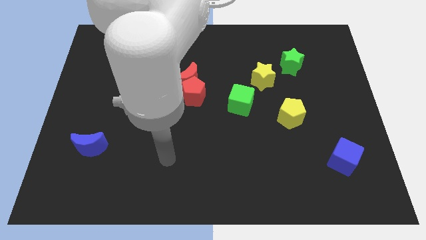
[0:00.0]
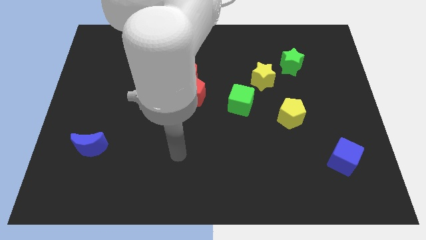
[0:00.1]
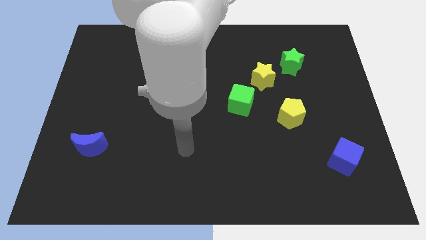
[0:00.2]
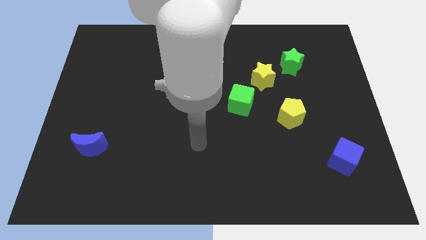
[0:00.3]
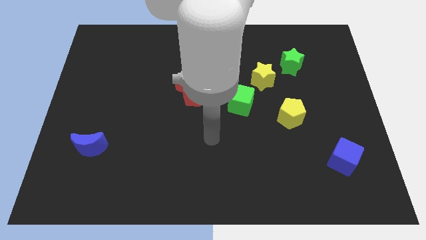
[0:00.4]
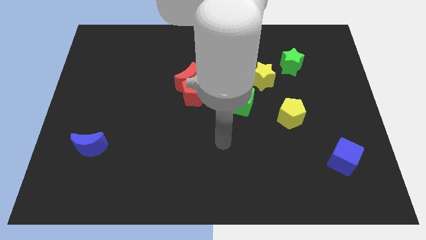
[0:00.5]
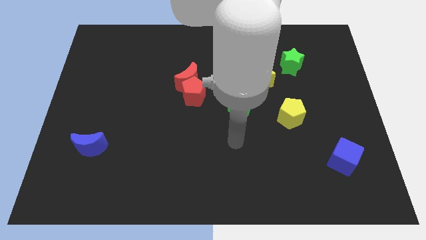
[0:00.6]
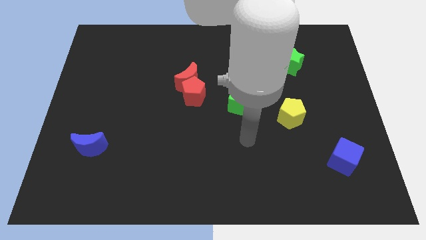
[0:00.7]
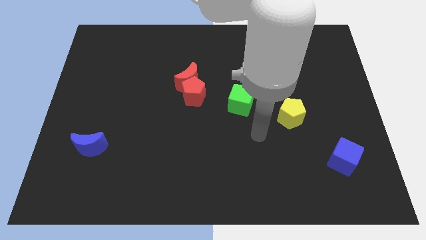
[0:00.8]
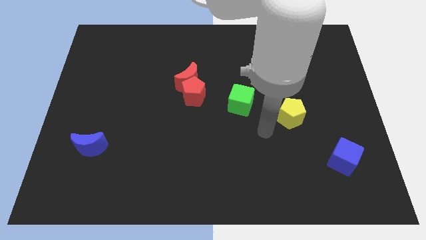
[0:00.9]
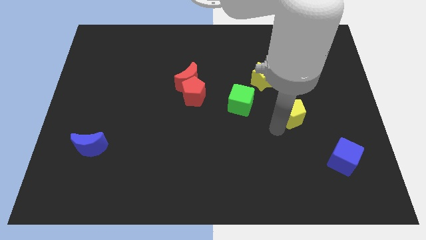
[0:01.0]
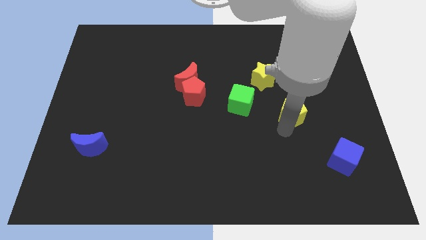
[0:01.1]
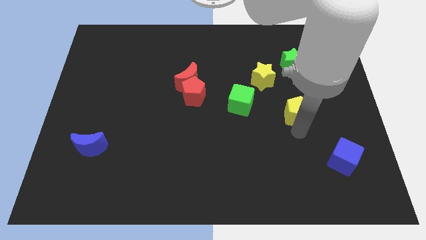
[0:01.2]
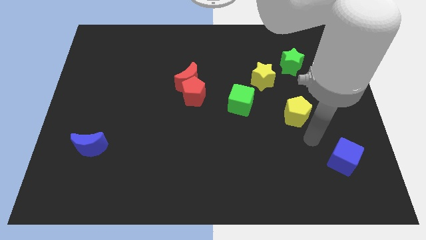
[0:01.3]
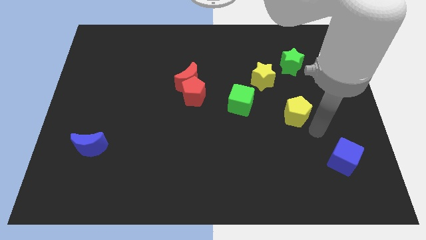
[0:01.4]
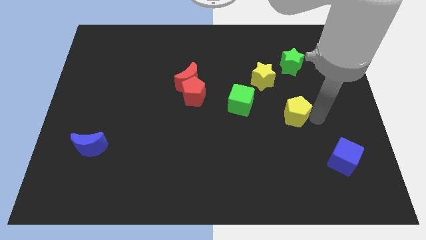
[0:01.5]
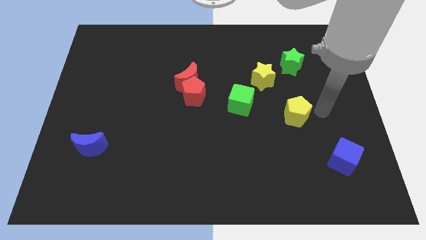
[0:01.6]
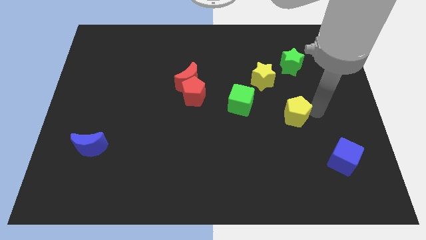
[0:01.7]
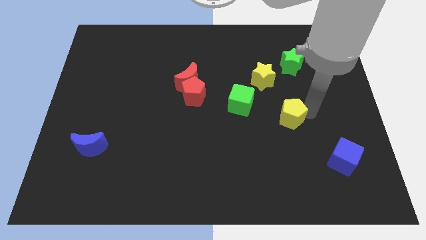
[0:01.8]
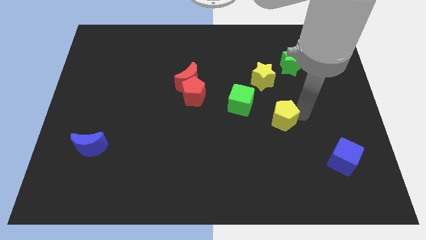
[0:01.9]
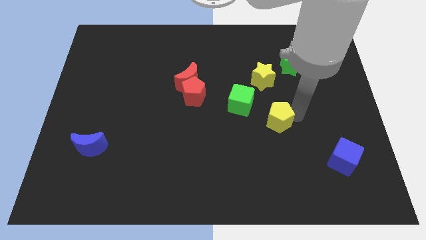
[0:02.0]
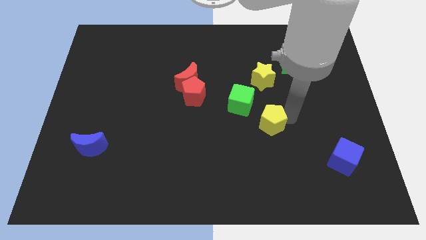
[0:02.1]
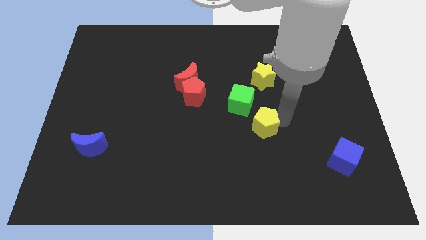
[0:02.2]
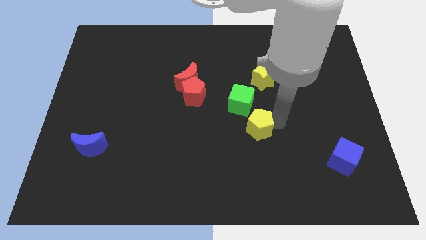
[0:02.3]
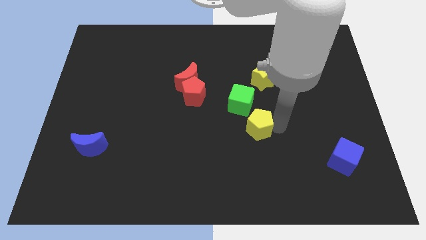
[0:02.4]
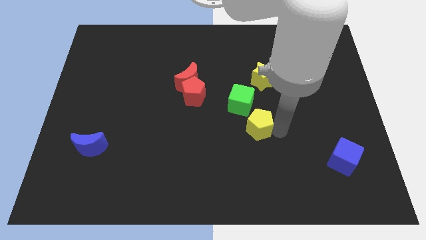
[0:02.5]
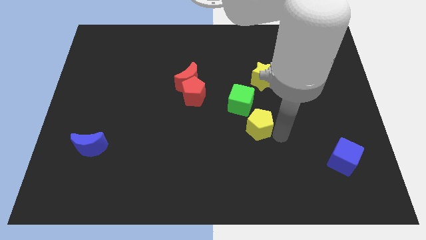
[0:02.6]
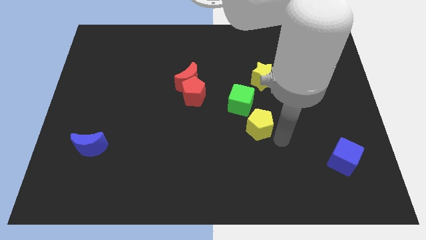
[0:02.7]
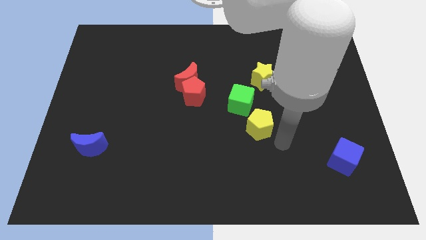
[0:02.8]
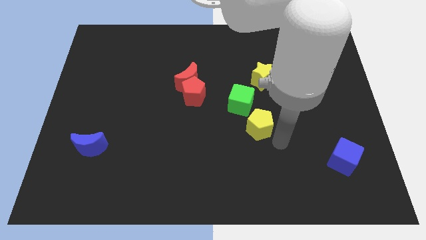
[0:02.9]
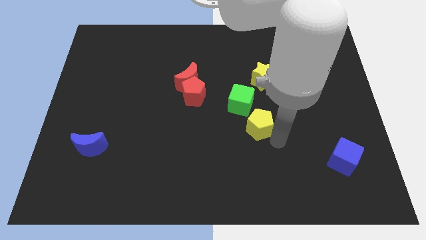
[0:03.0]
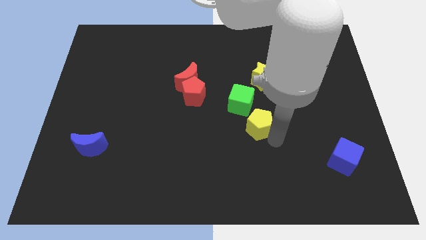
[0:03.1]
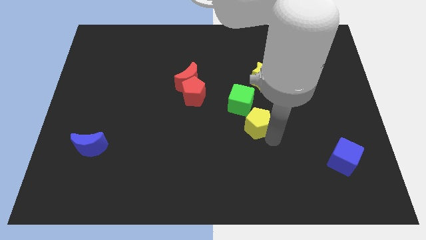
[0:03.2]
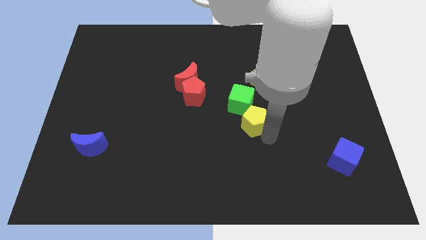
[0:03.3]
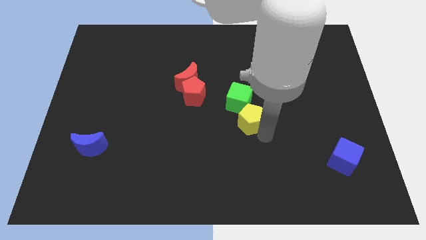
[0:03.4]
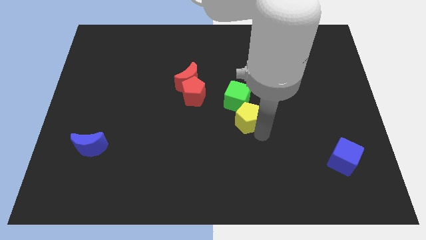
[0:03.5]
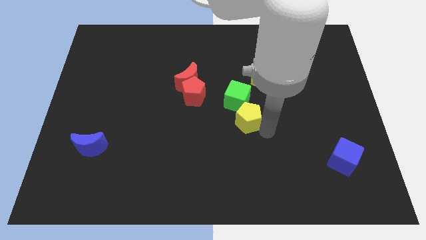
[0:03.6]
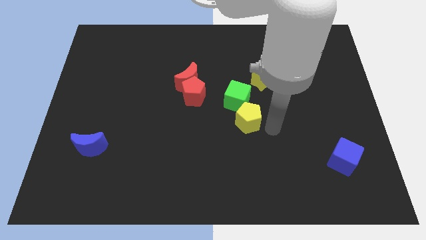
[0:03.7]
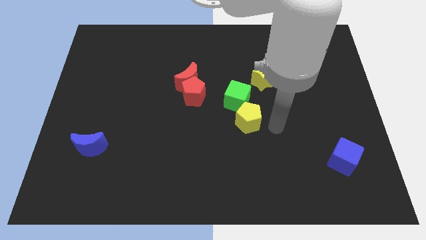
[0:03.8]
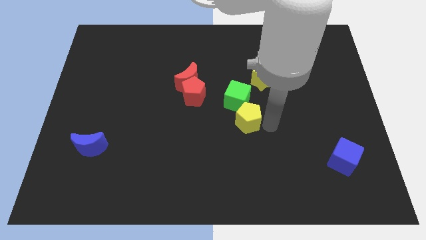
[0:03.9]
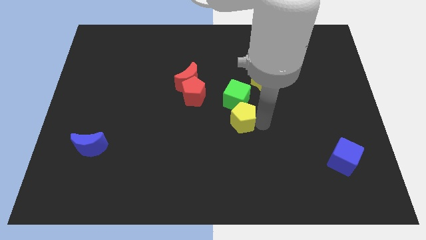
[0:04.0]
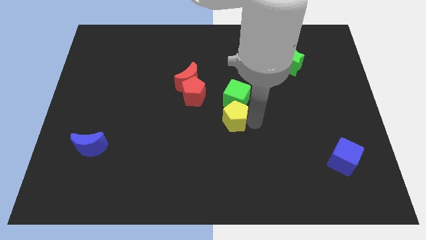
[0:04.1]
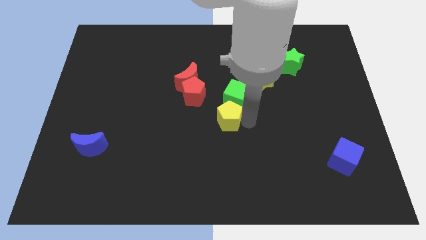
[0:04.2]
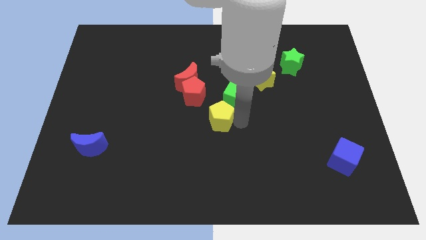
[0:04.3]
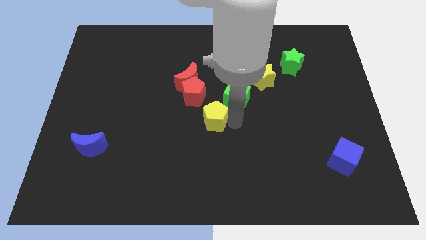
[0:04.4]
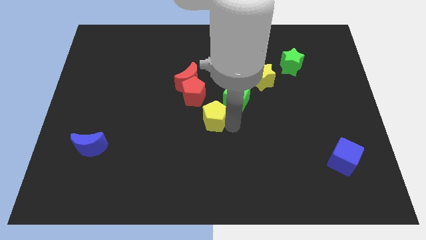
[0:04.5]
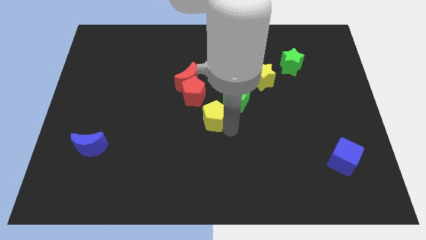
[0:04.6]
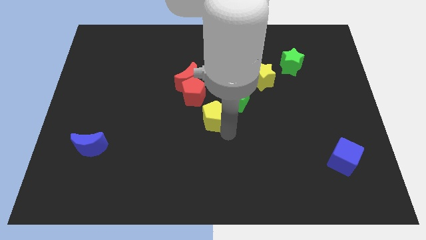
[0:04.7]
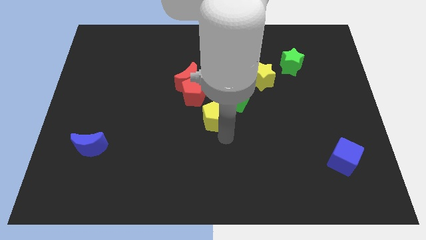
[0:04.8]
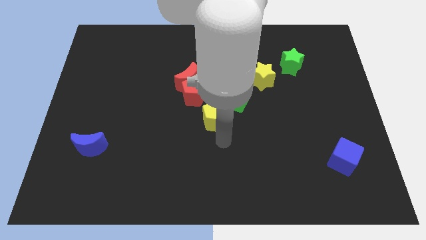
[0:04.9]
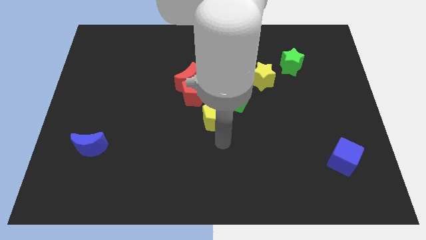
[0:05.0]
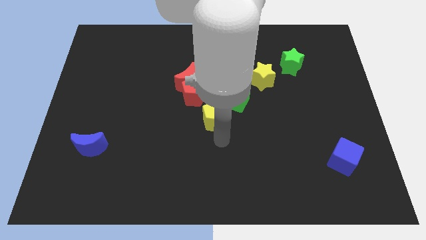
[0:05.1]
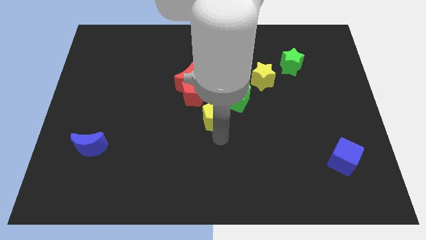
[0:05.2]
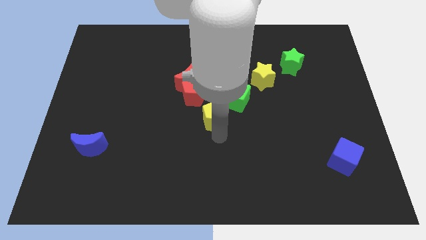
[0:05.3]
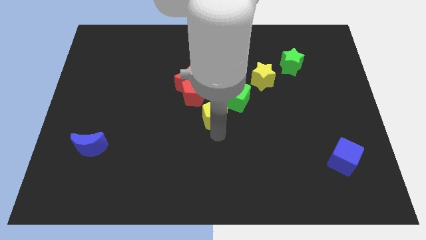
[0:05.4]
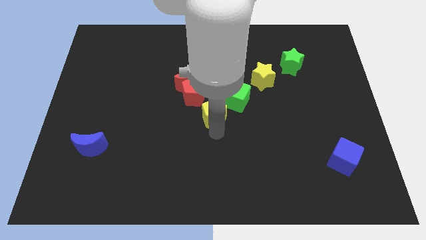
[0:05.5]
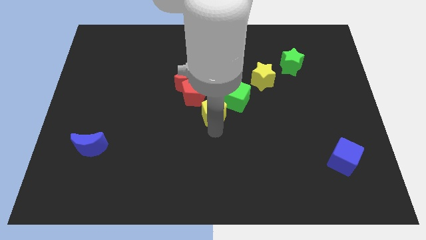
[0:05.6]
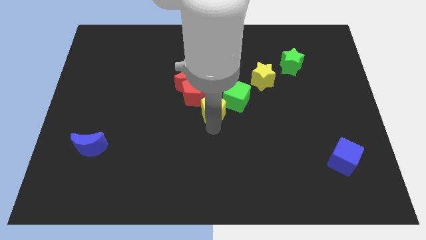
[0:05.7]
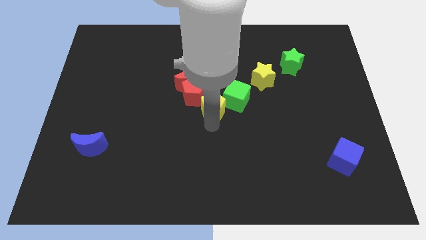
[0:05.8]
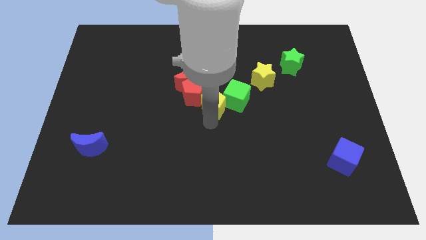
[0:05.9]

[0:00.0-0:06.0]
move the yellow pentagon to the red pentagon

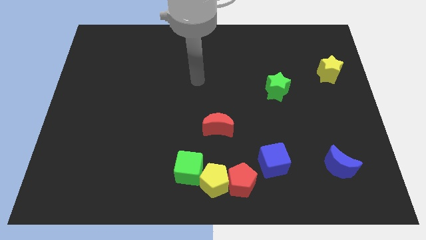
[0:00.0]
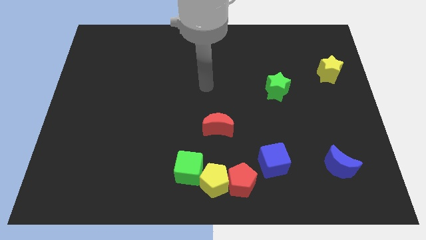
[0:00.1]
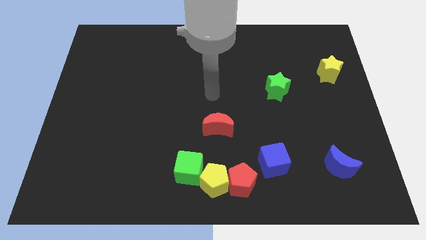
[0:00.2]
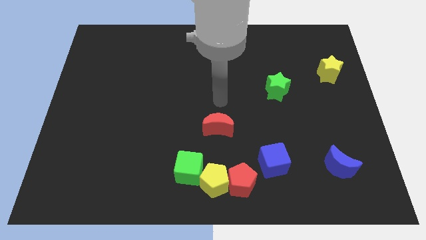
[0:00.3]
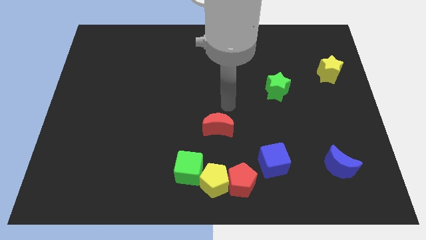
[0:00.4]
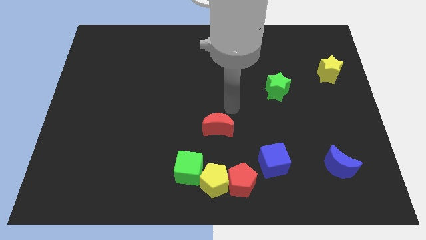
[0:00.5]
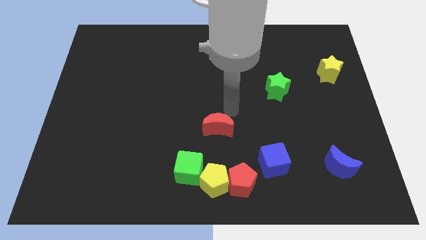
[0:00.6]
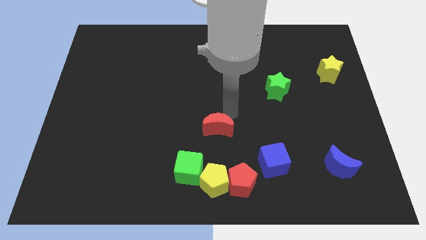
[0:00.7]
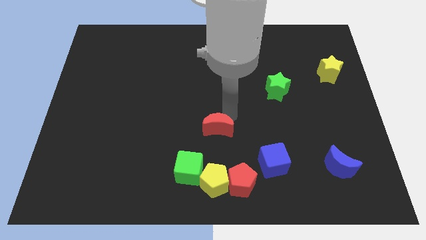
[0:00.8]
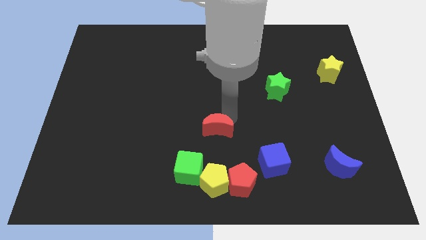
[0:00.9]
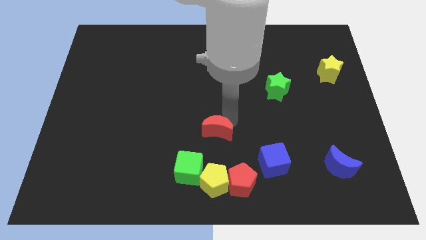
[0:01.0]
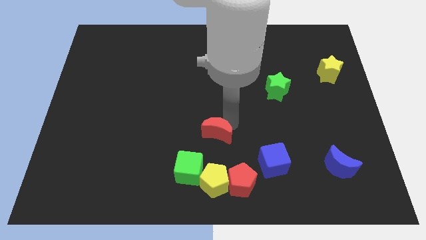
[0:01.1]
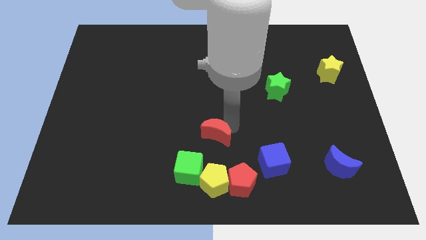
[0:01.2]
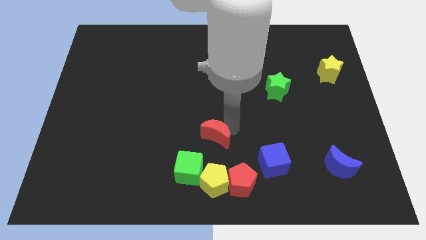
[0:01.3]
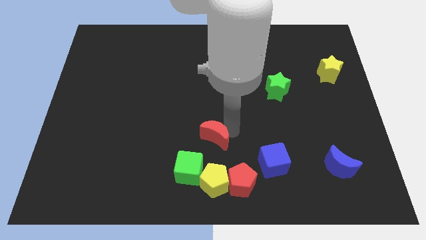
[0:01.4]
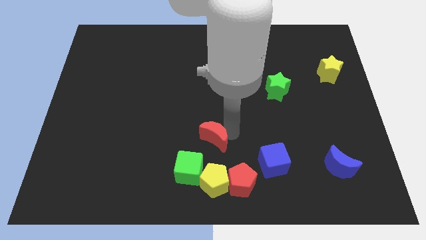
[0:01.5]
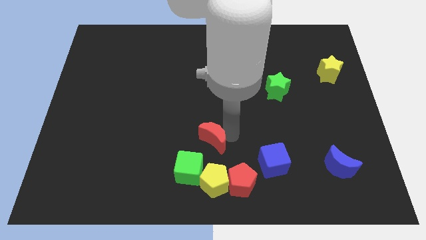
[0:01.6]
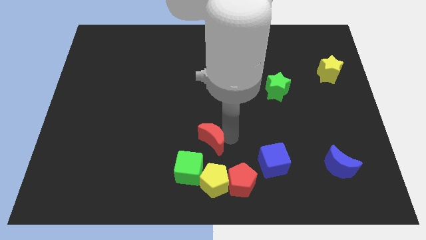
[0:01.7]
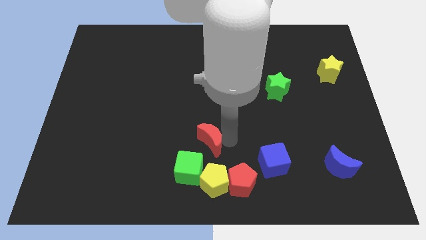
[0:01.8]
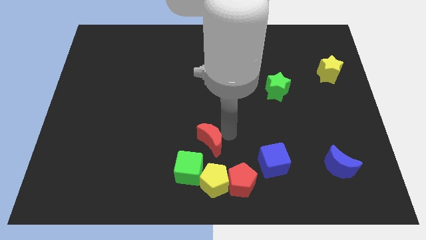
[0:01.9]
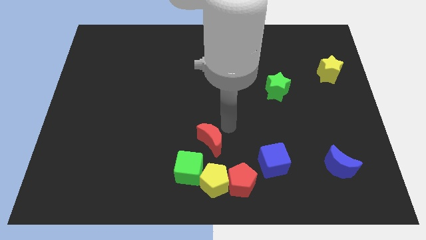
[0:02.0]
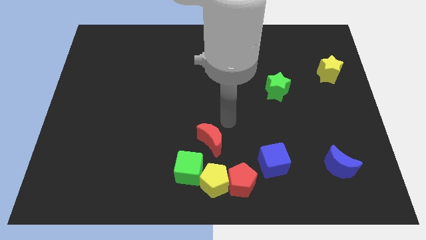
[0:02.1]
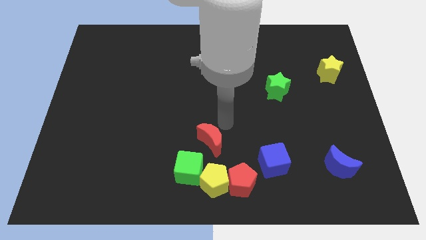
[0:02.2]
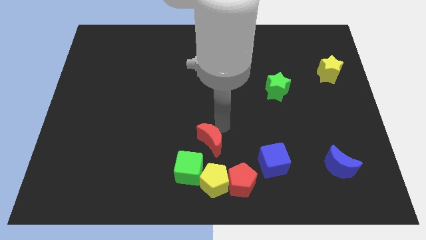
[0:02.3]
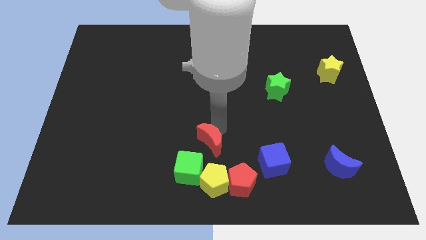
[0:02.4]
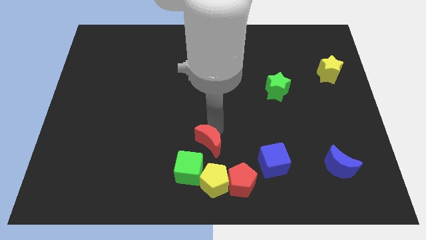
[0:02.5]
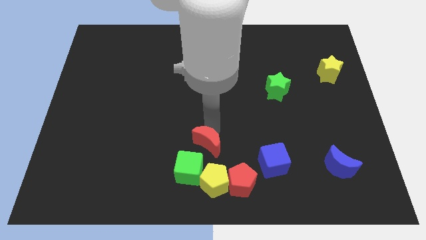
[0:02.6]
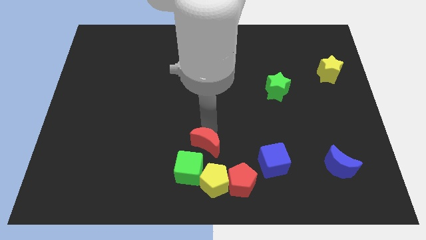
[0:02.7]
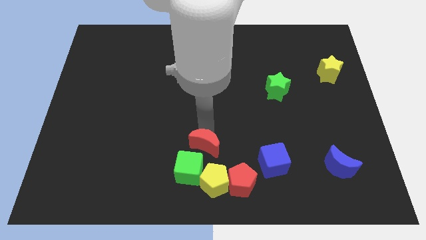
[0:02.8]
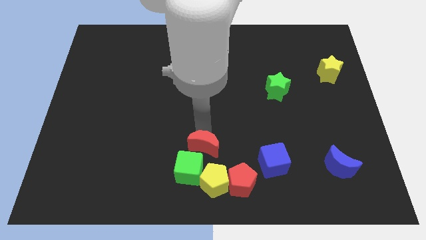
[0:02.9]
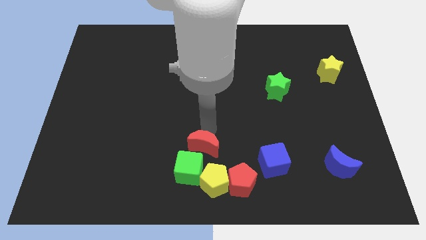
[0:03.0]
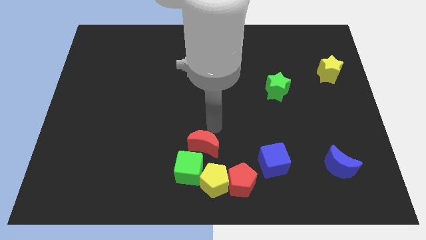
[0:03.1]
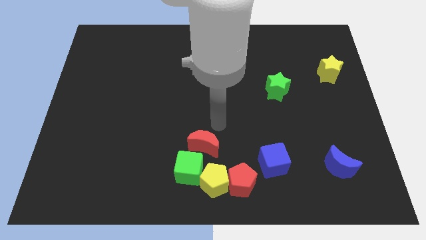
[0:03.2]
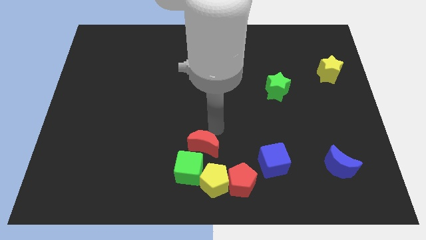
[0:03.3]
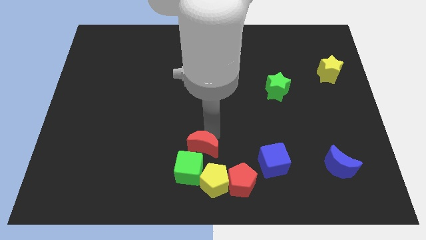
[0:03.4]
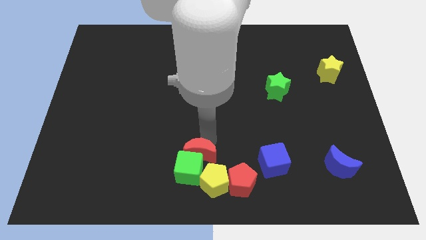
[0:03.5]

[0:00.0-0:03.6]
put the red moon towards the green cube
